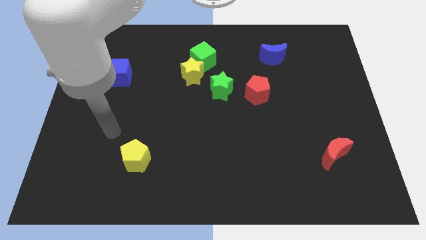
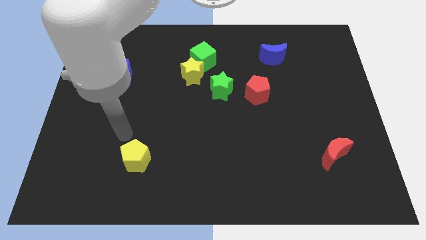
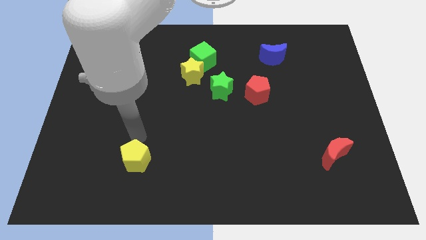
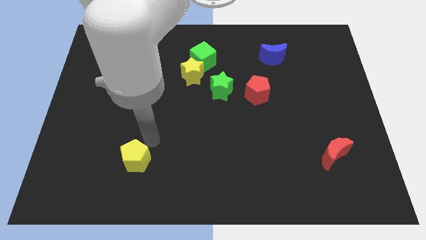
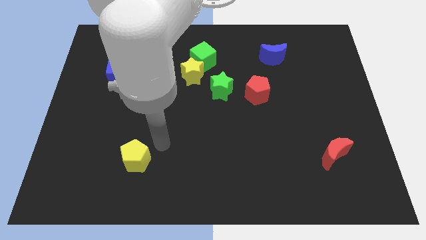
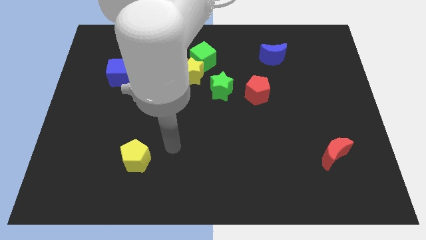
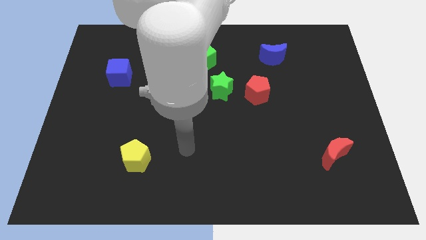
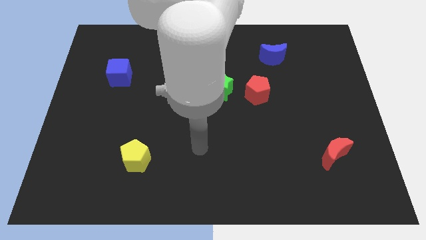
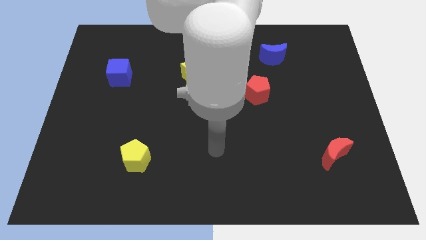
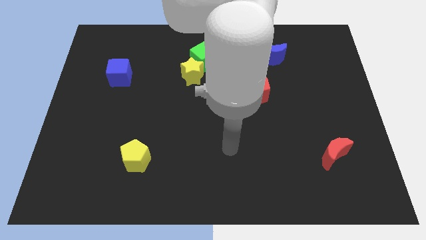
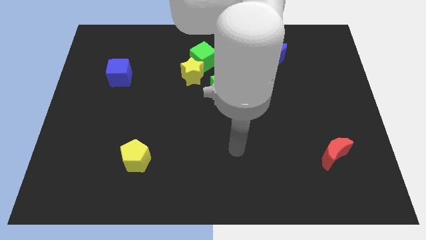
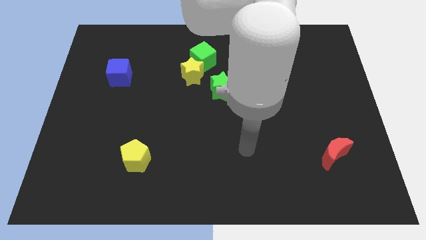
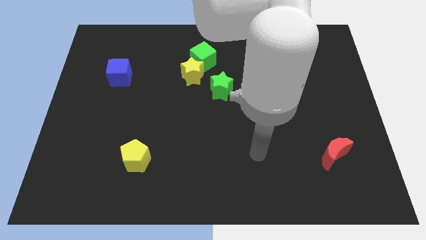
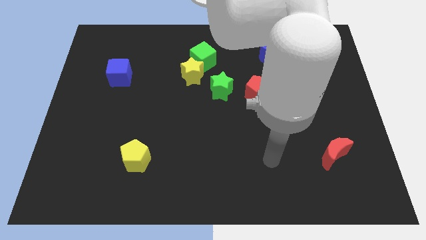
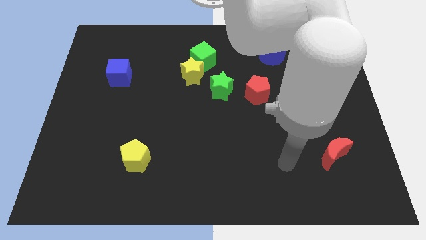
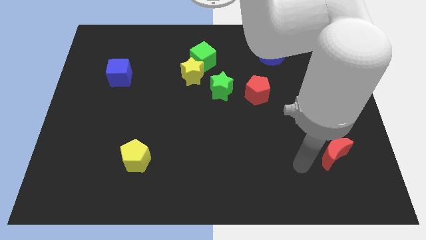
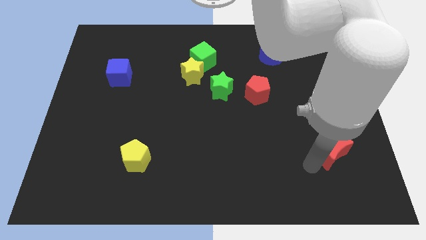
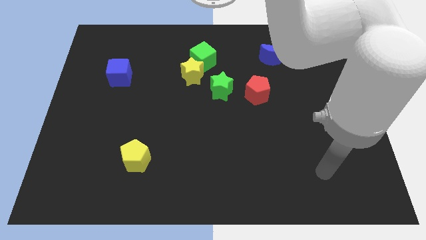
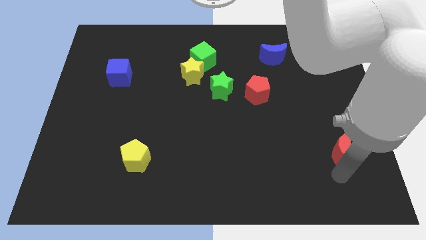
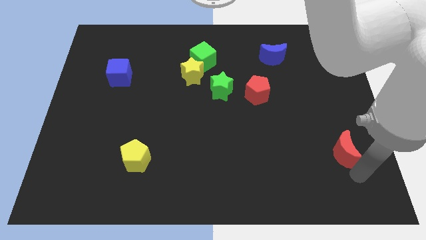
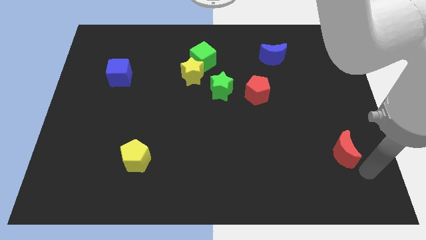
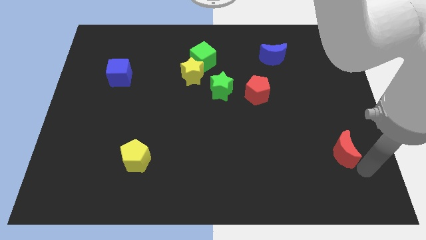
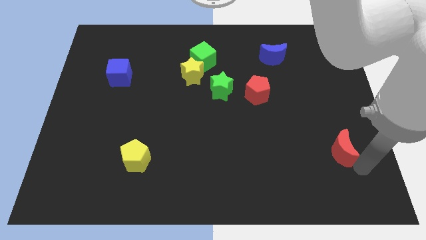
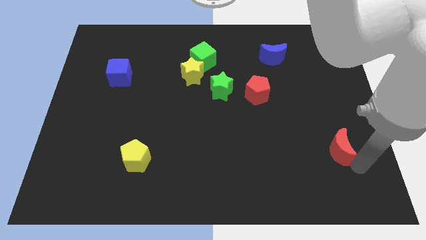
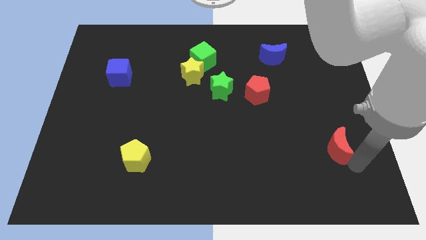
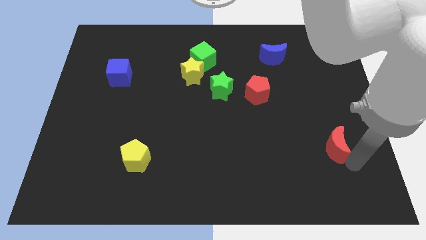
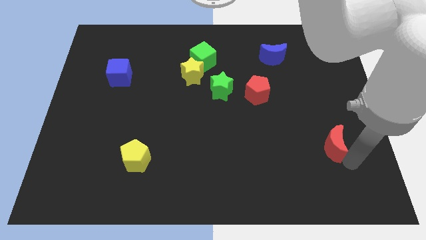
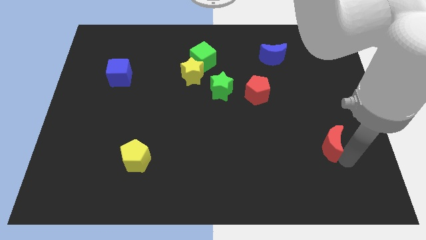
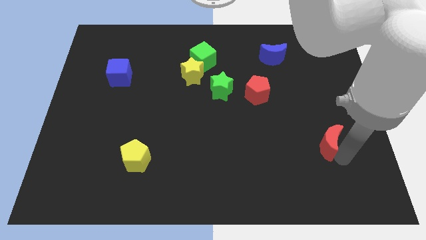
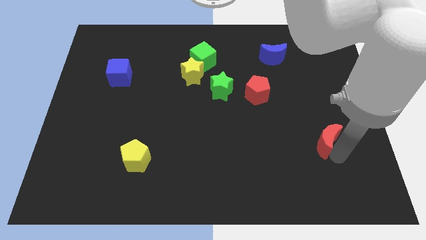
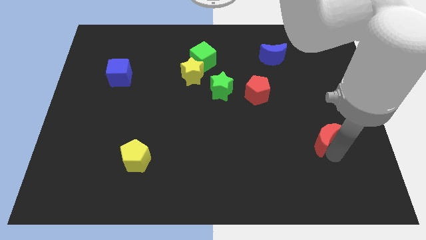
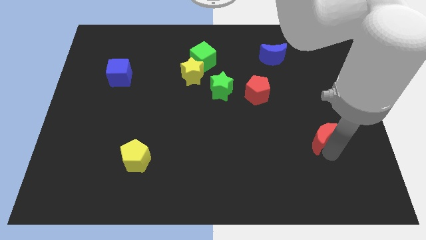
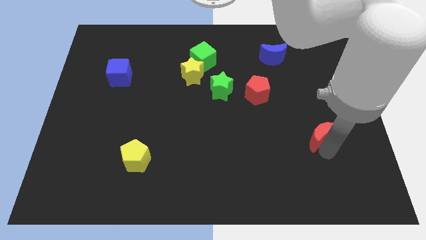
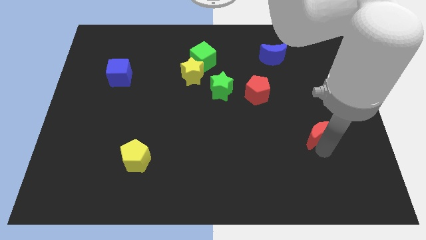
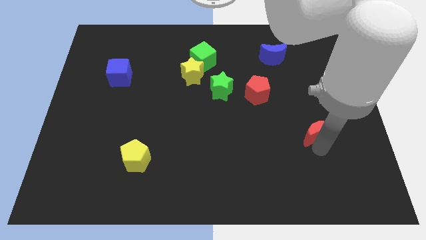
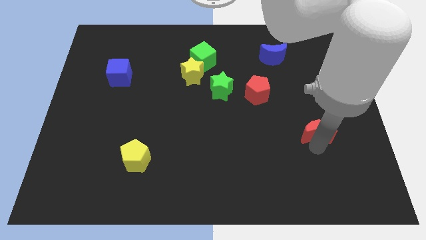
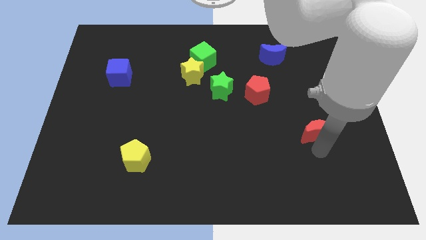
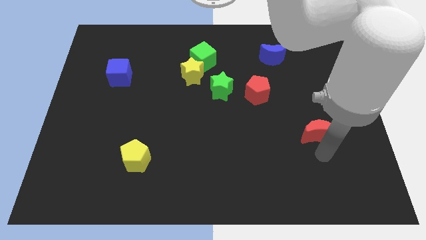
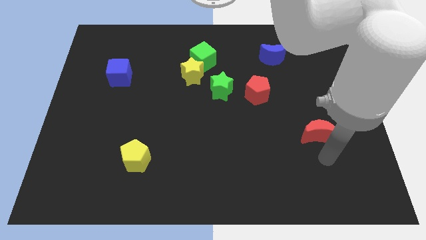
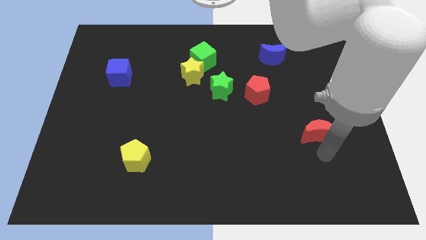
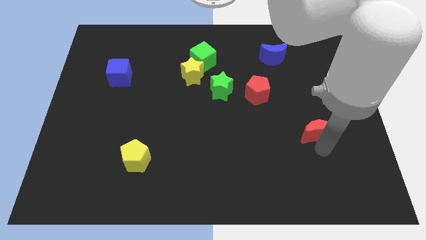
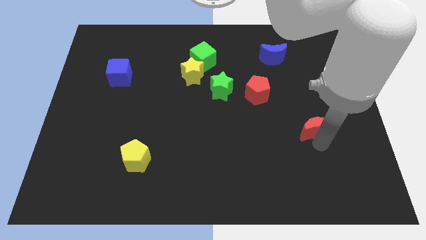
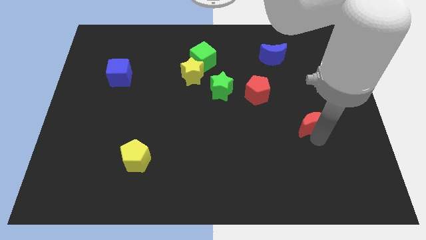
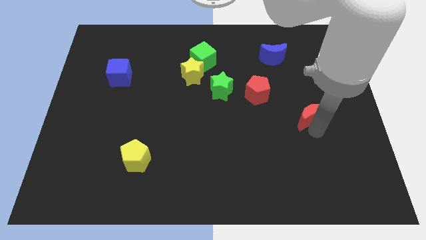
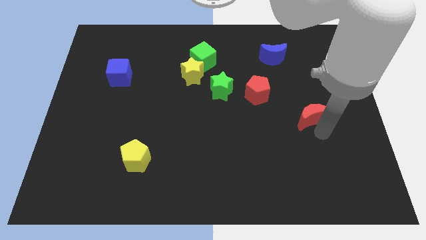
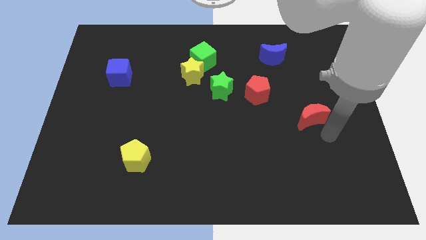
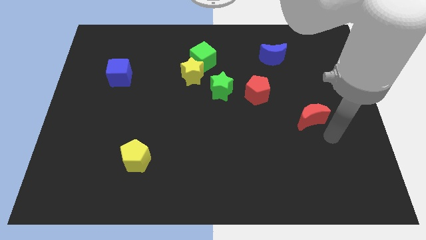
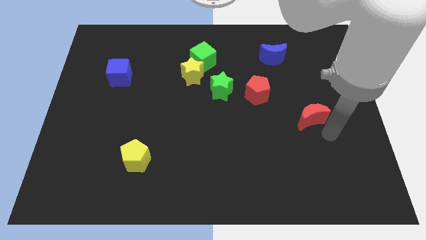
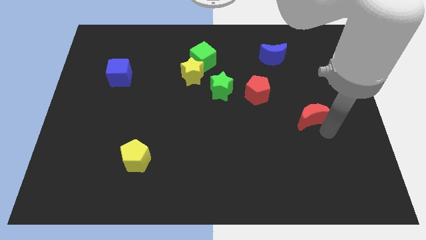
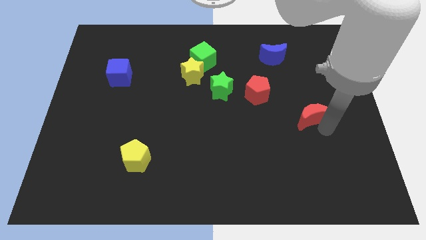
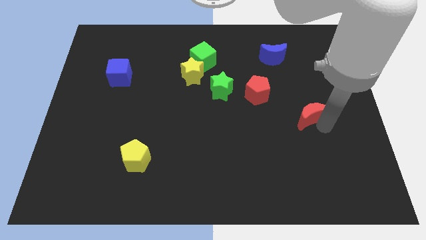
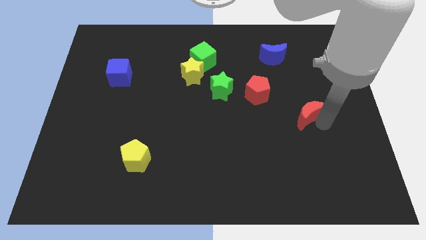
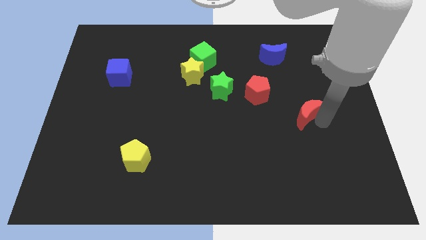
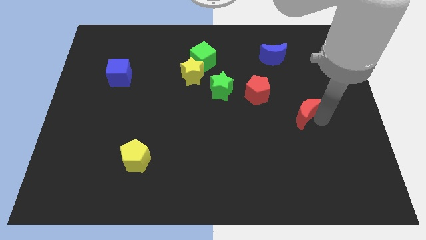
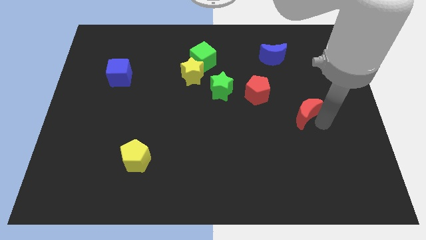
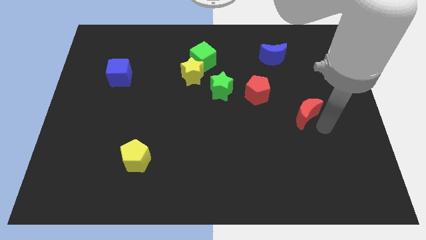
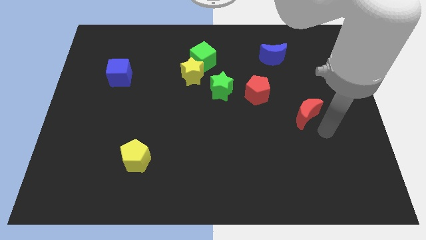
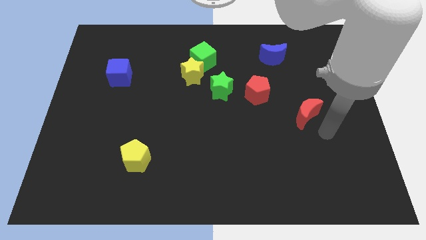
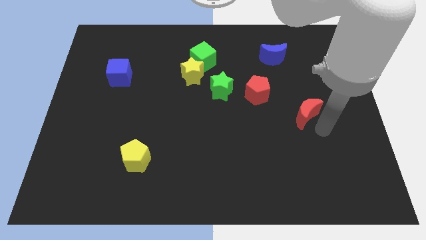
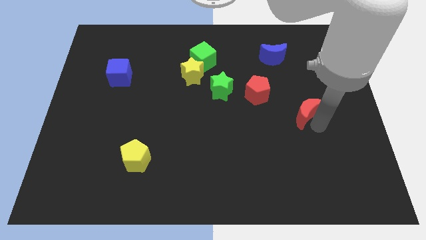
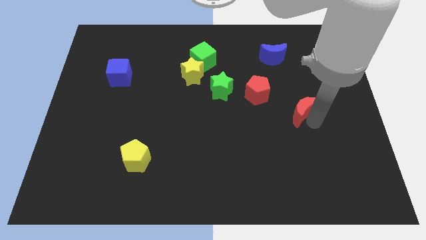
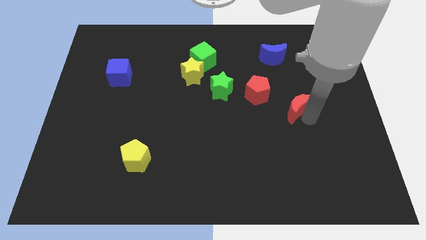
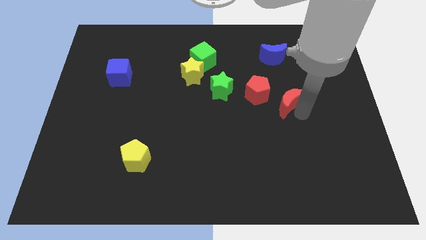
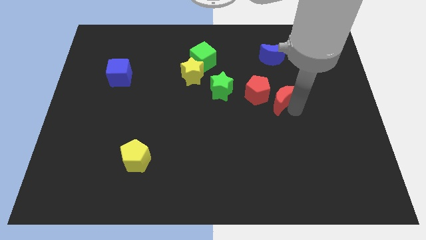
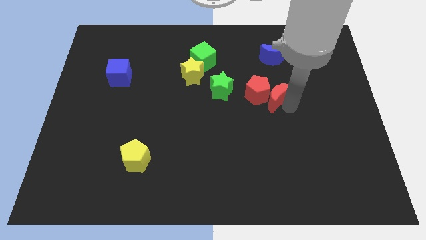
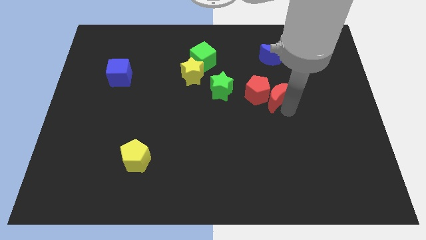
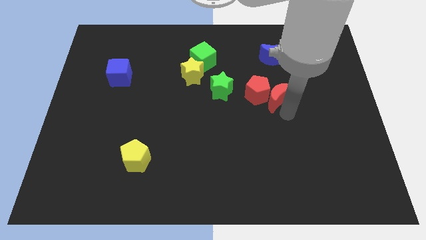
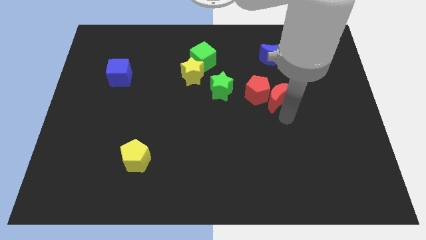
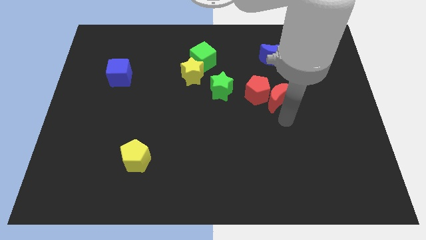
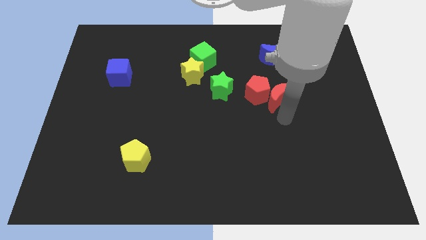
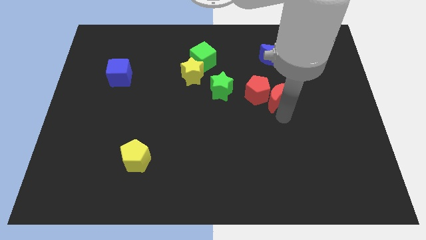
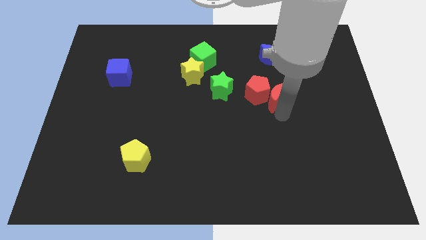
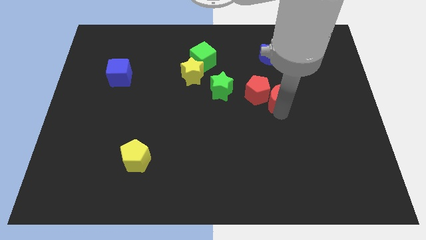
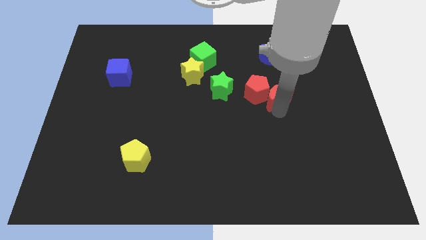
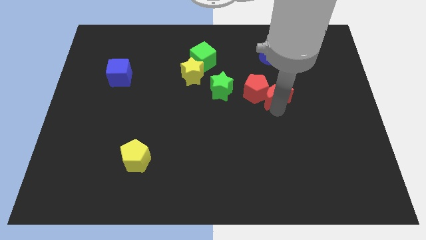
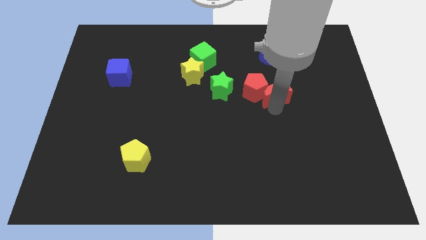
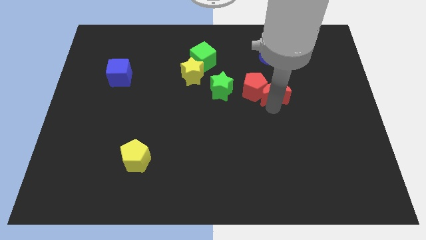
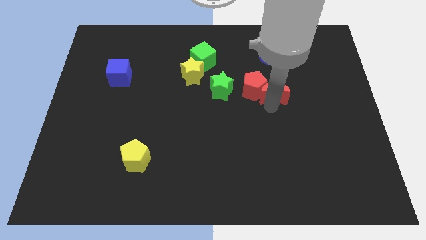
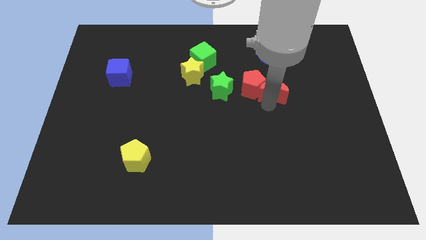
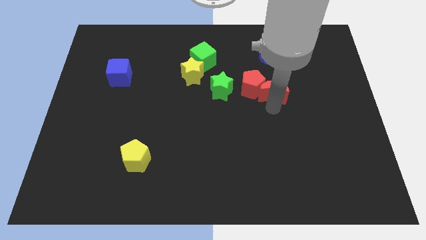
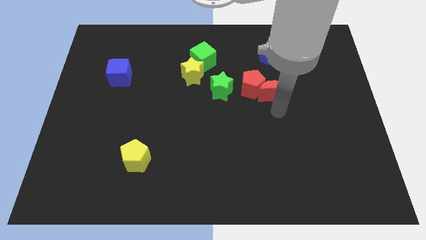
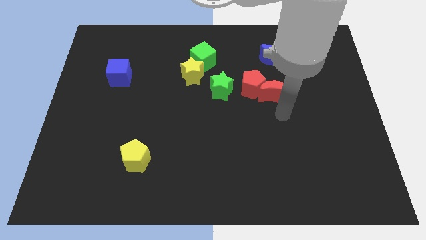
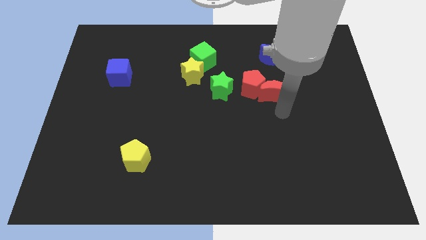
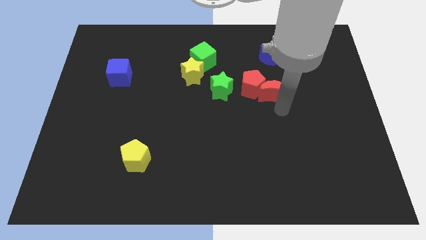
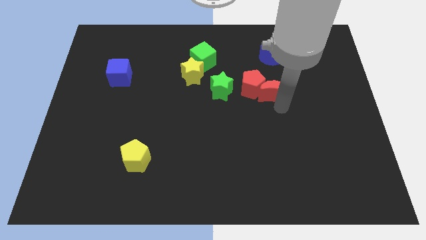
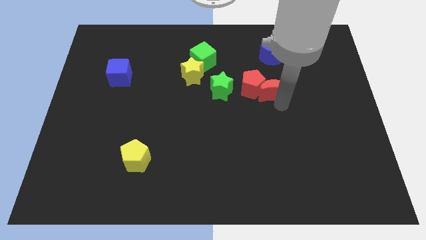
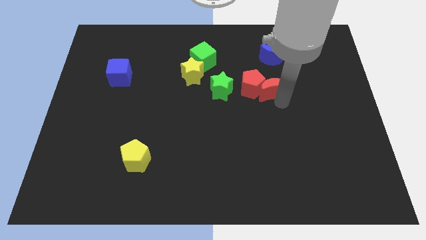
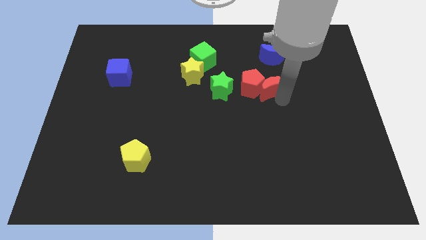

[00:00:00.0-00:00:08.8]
move the red moon upwards and to the left diagonally
